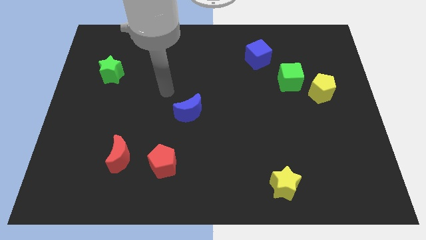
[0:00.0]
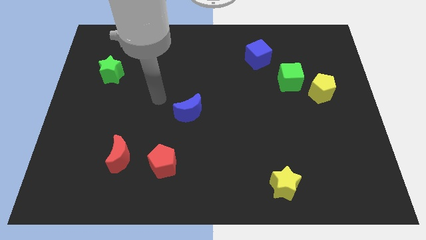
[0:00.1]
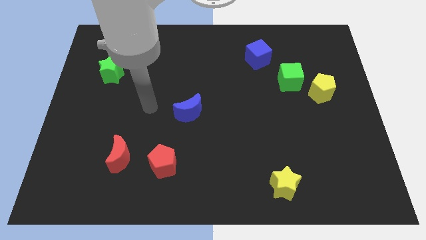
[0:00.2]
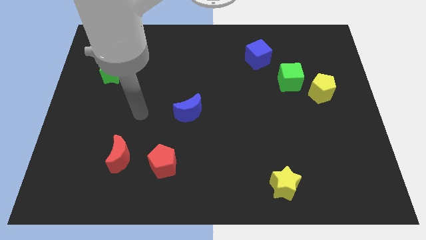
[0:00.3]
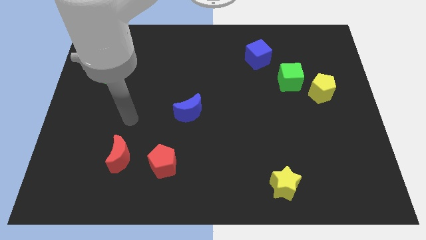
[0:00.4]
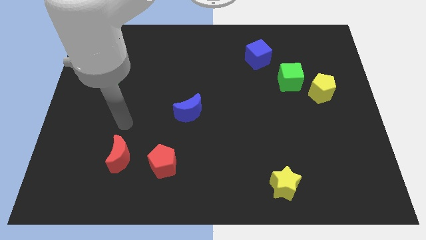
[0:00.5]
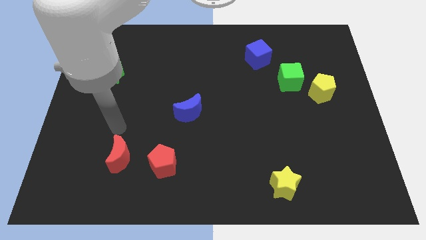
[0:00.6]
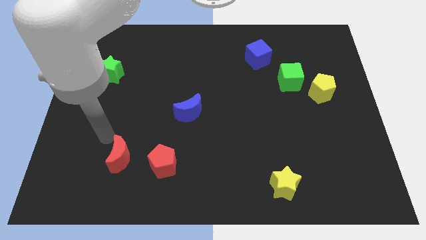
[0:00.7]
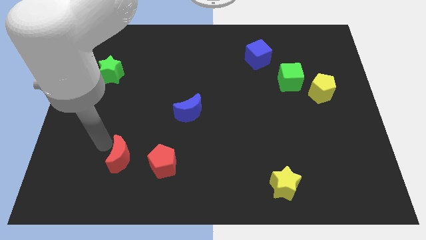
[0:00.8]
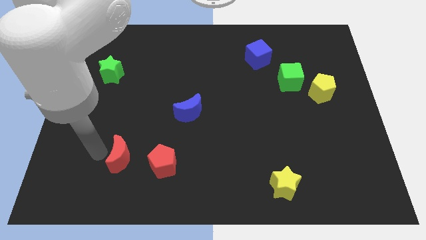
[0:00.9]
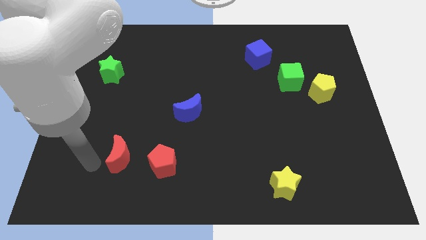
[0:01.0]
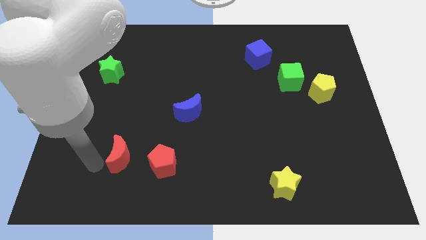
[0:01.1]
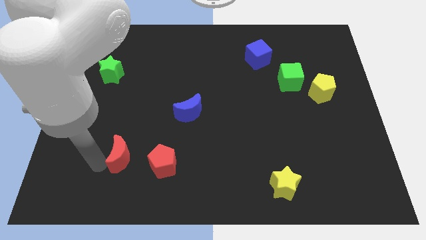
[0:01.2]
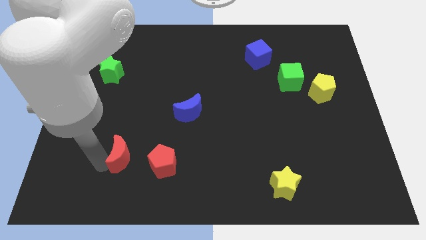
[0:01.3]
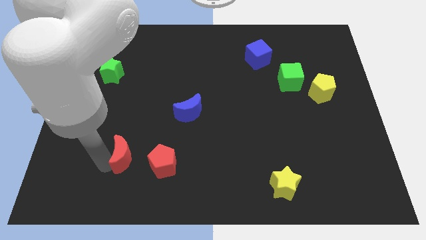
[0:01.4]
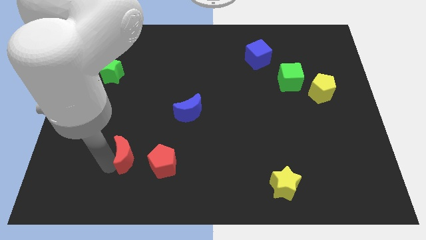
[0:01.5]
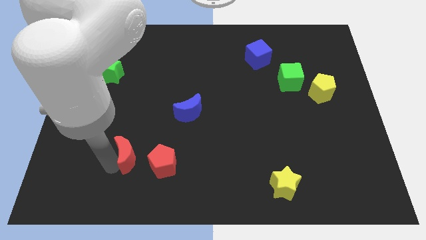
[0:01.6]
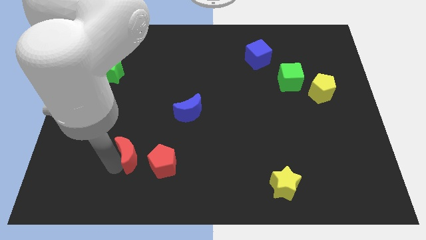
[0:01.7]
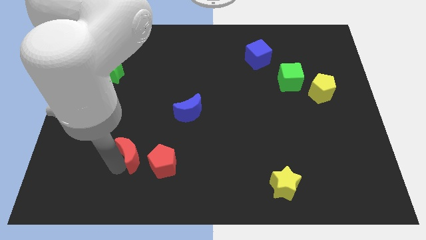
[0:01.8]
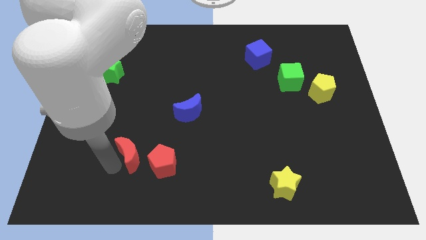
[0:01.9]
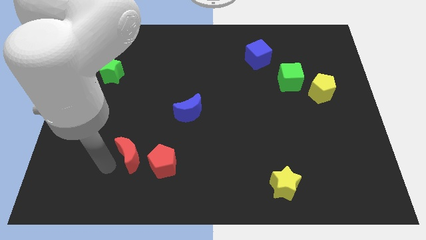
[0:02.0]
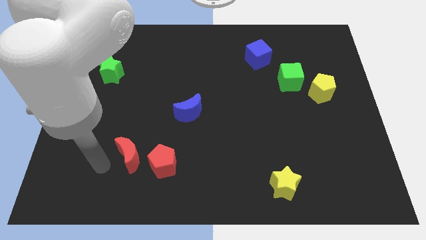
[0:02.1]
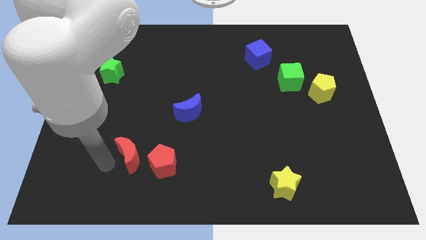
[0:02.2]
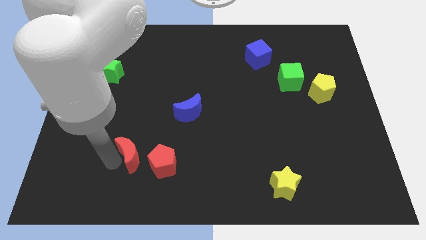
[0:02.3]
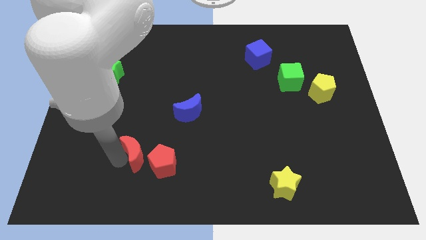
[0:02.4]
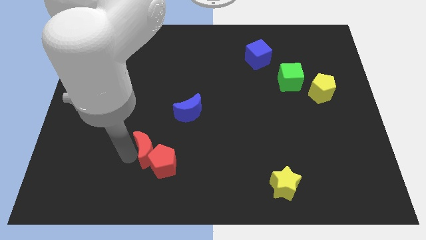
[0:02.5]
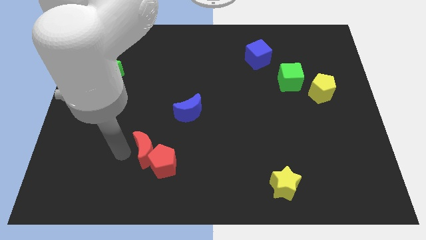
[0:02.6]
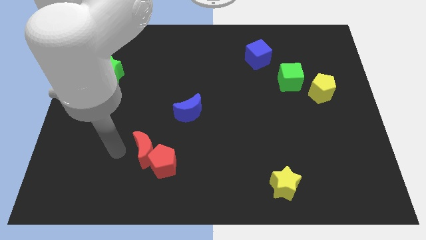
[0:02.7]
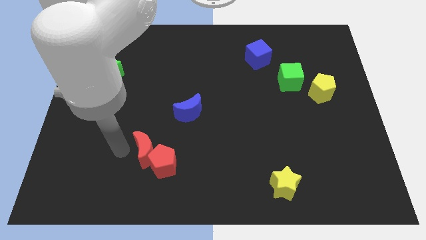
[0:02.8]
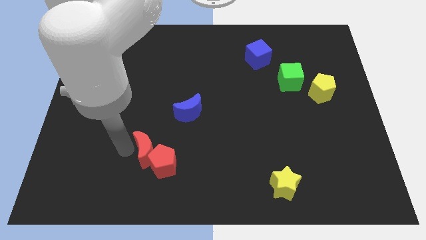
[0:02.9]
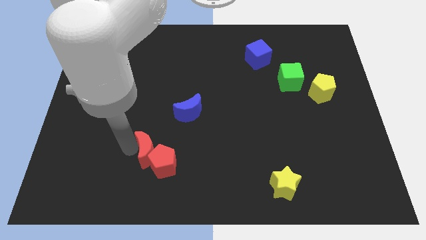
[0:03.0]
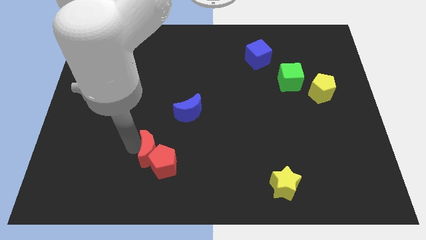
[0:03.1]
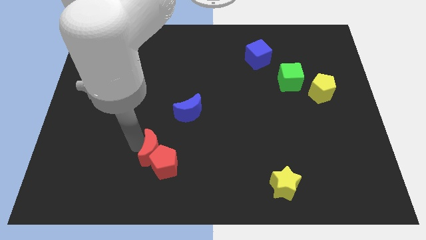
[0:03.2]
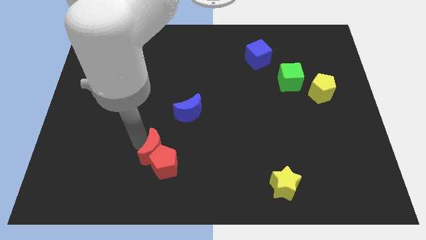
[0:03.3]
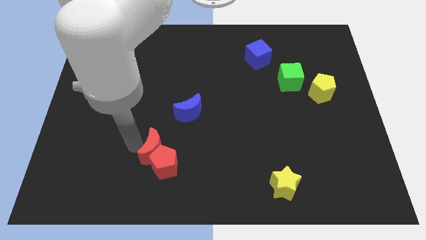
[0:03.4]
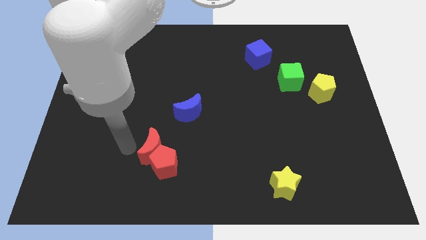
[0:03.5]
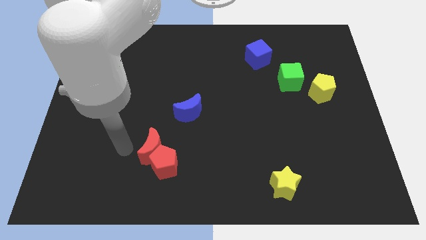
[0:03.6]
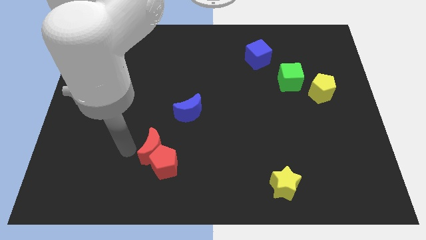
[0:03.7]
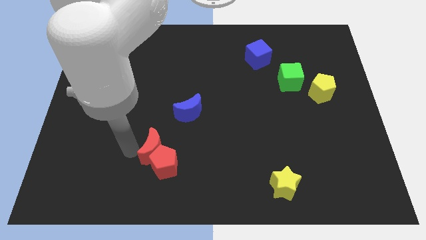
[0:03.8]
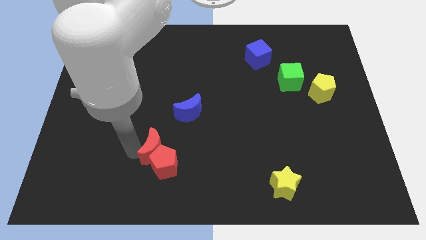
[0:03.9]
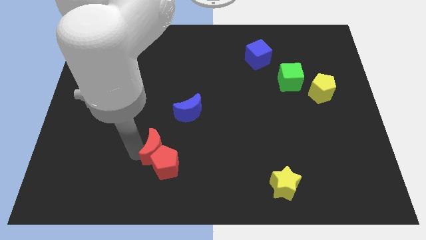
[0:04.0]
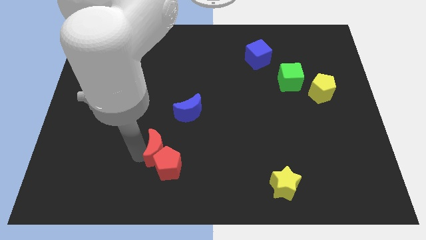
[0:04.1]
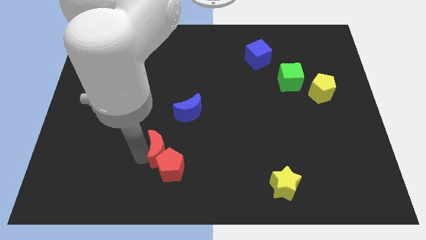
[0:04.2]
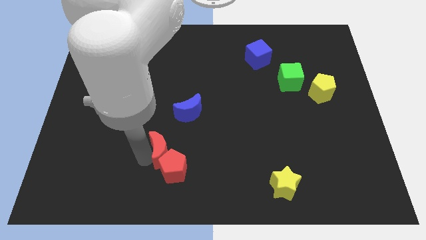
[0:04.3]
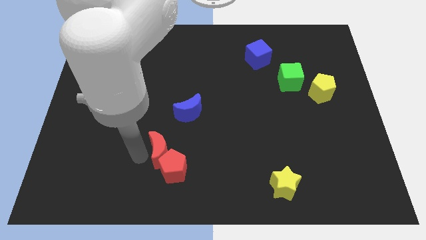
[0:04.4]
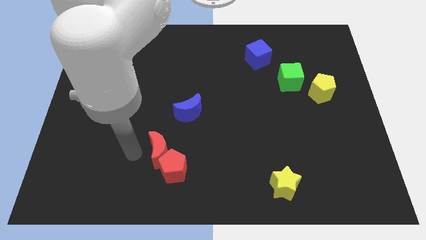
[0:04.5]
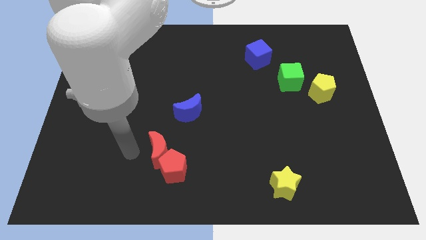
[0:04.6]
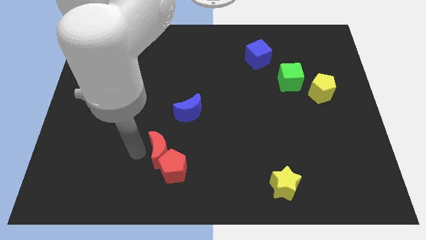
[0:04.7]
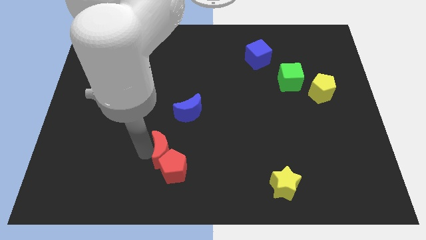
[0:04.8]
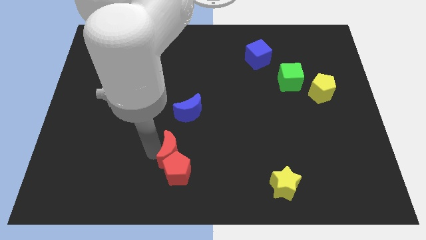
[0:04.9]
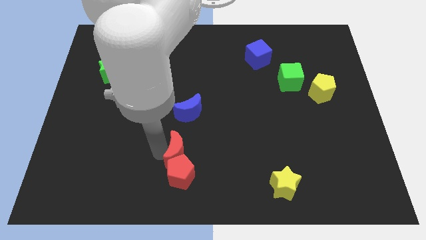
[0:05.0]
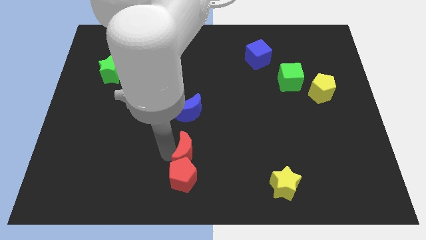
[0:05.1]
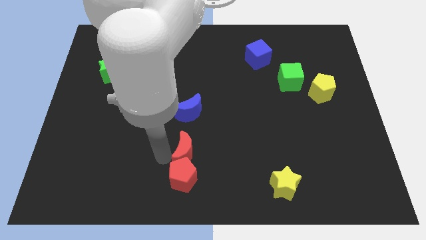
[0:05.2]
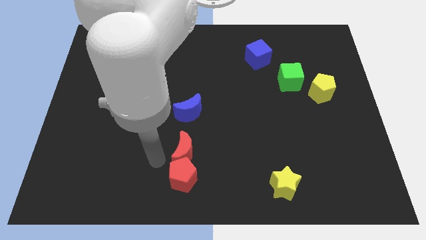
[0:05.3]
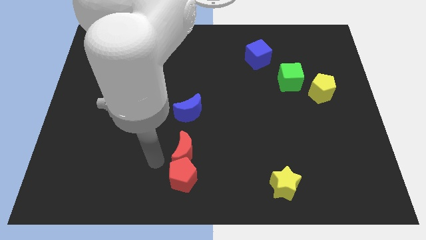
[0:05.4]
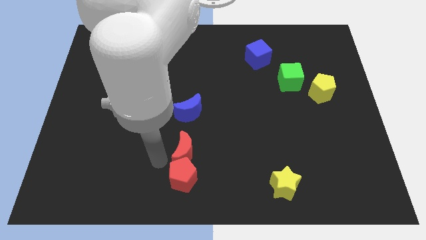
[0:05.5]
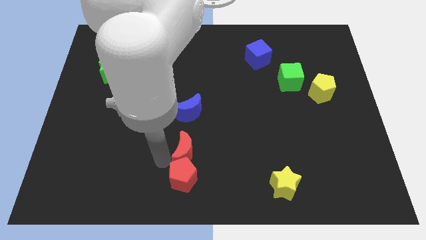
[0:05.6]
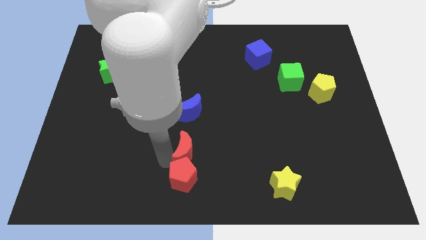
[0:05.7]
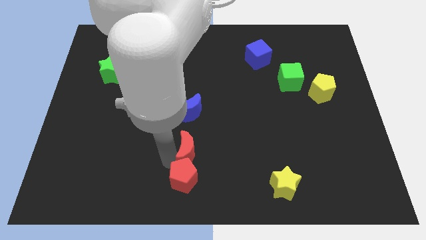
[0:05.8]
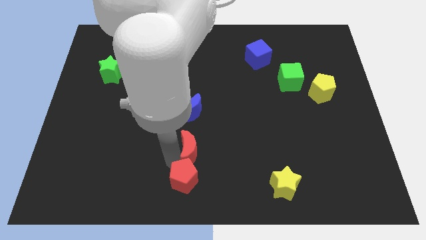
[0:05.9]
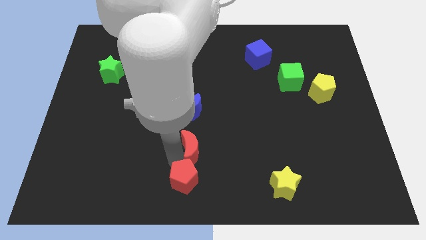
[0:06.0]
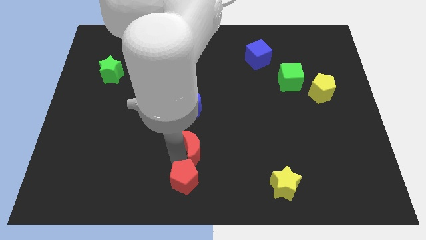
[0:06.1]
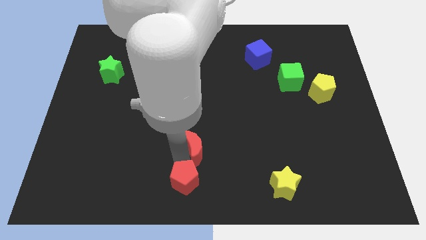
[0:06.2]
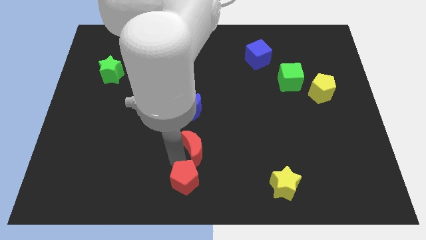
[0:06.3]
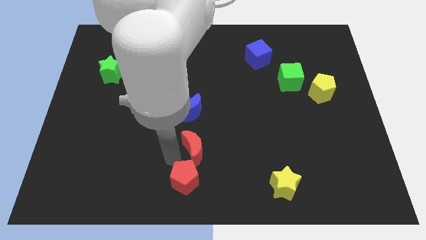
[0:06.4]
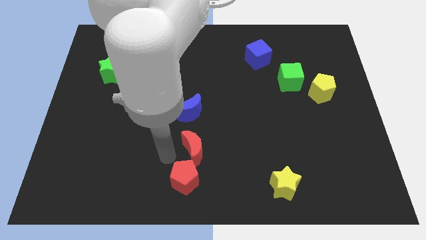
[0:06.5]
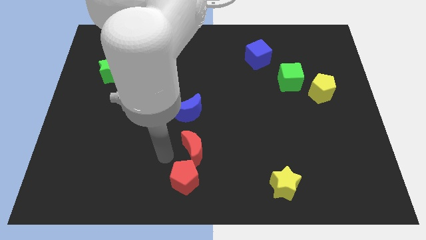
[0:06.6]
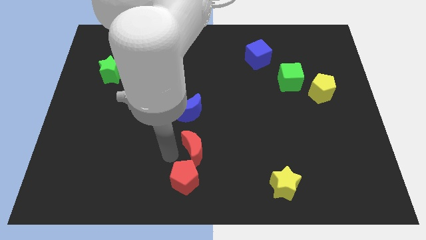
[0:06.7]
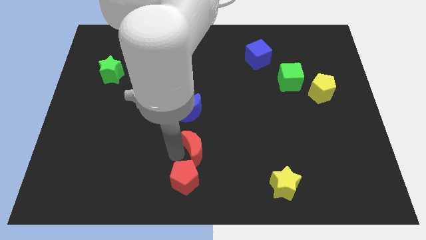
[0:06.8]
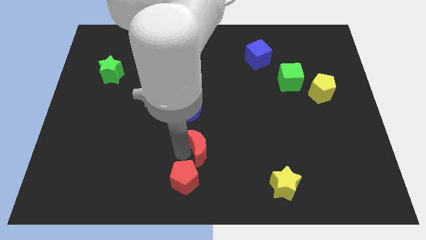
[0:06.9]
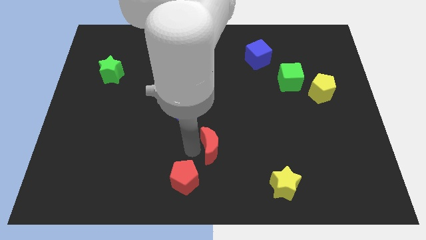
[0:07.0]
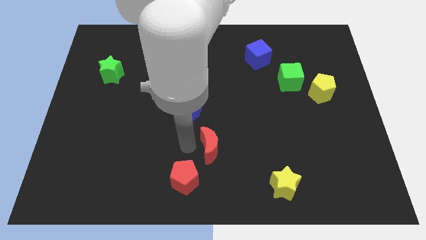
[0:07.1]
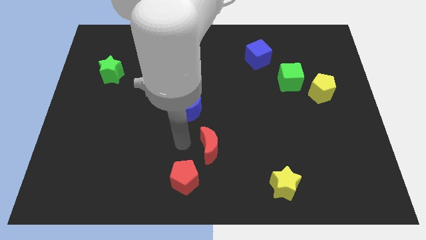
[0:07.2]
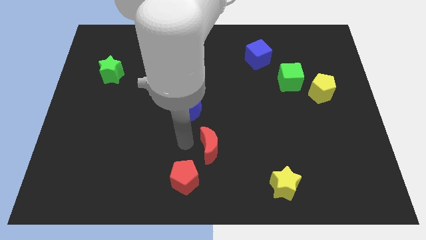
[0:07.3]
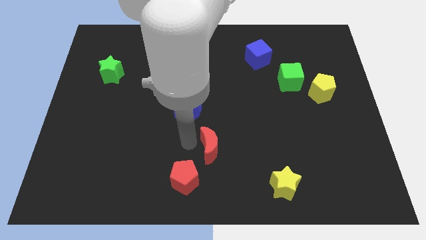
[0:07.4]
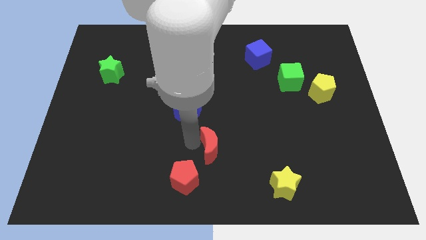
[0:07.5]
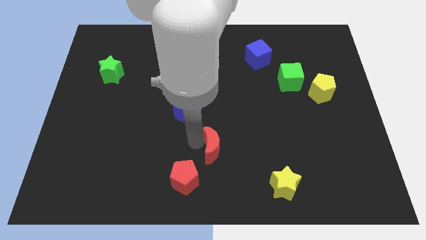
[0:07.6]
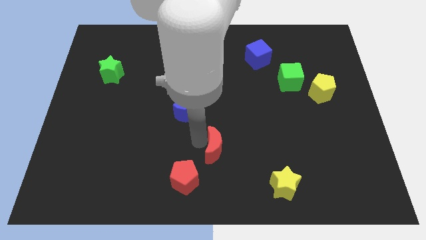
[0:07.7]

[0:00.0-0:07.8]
push the red moon to the right

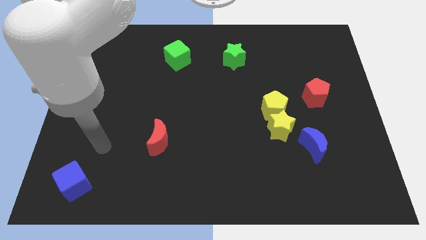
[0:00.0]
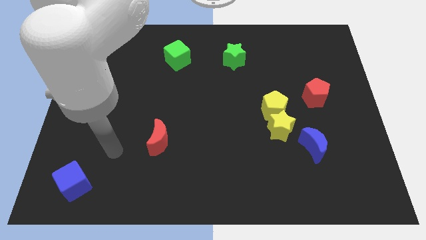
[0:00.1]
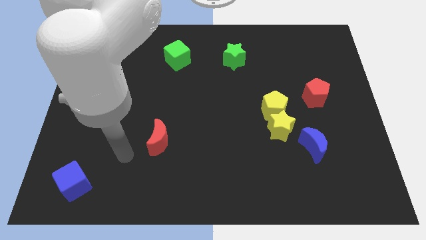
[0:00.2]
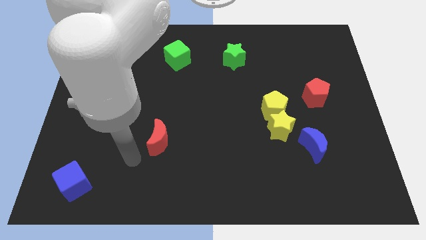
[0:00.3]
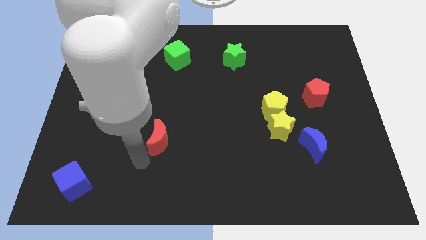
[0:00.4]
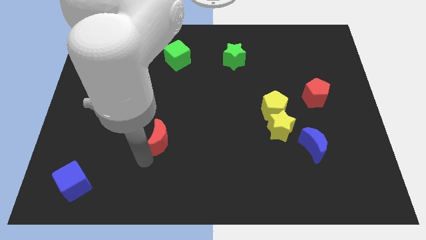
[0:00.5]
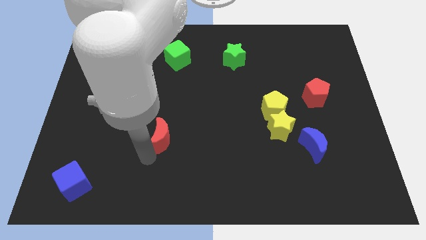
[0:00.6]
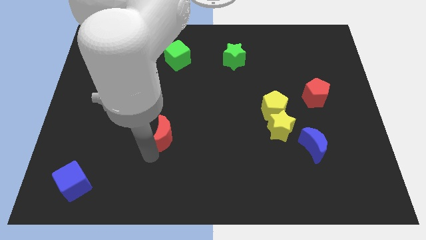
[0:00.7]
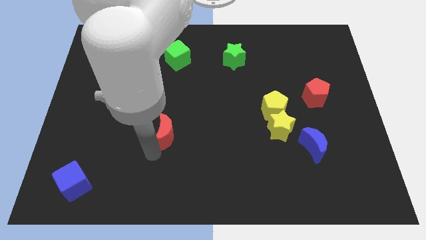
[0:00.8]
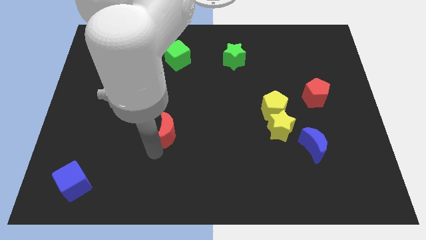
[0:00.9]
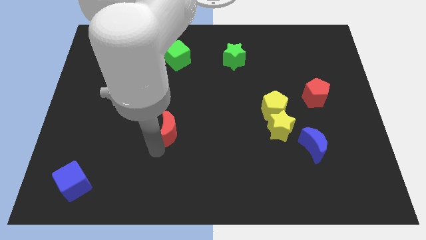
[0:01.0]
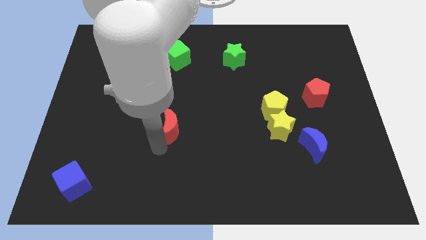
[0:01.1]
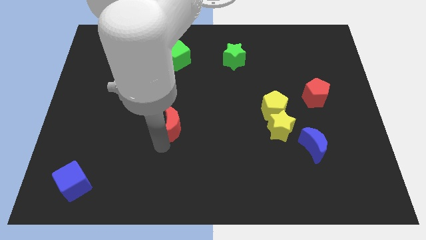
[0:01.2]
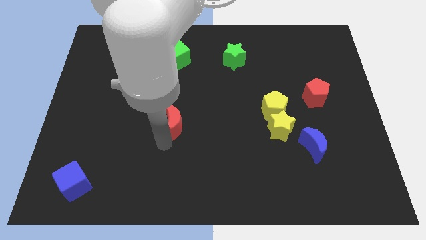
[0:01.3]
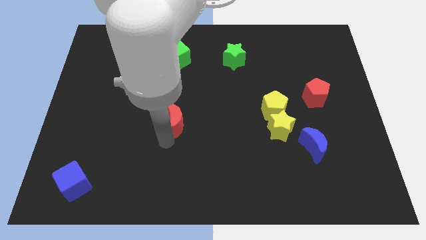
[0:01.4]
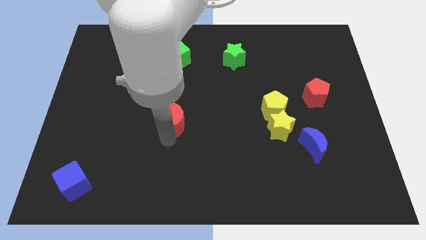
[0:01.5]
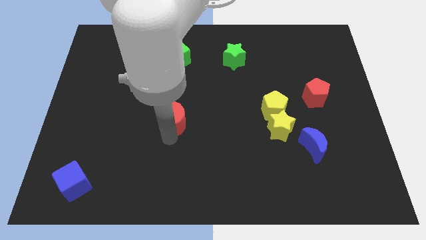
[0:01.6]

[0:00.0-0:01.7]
push the red moon a little up and to the right diagonally
